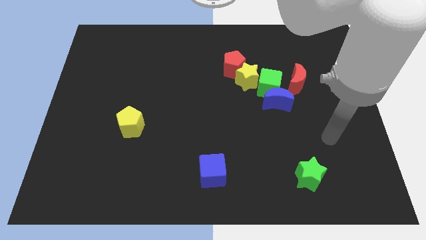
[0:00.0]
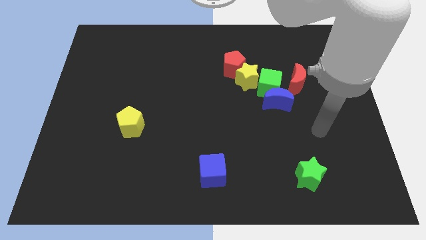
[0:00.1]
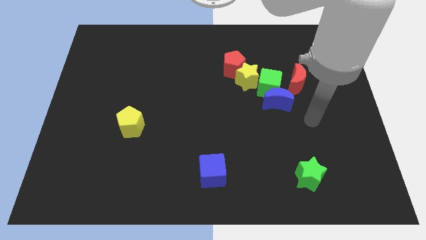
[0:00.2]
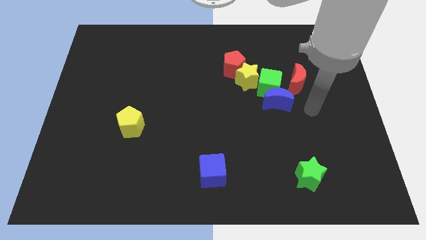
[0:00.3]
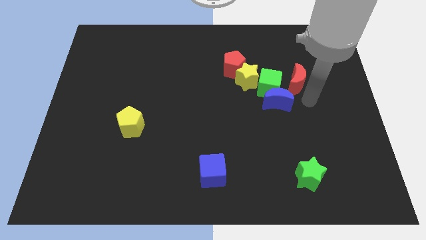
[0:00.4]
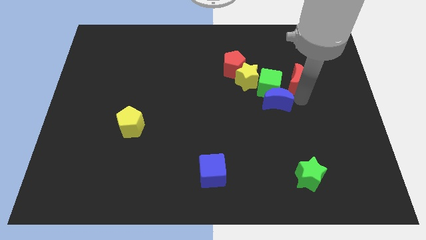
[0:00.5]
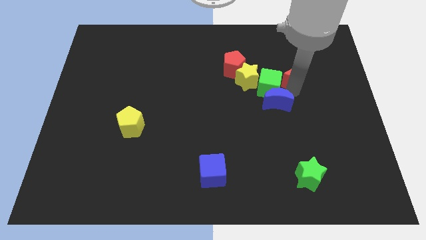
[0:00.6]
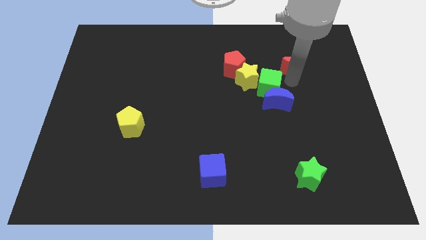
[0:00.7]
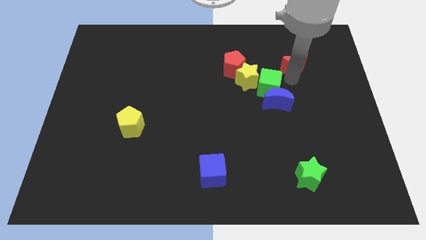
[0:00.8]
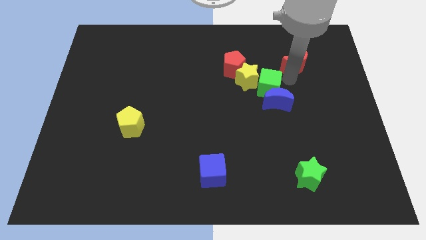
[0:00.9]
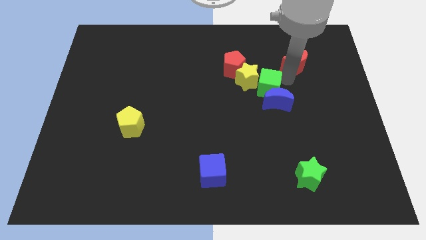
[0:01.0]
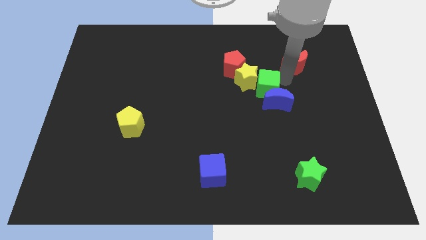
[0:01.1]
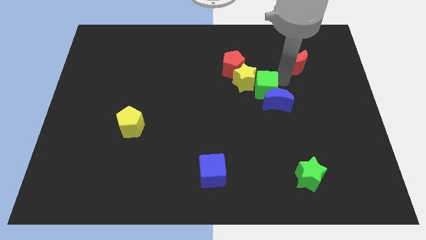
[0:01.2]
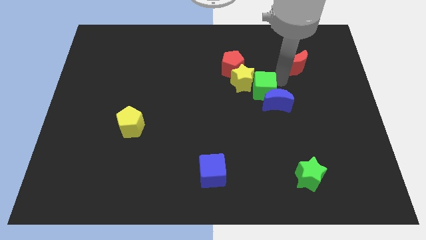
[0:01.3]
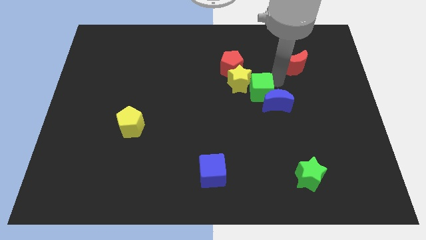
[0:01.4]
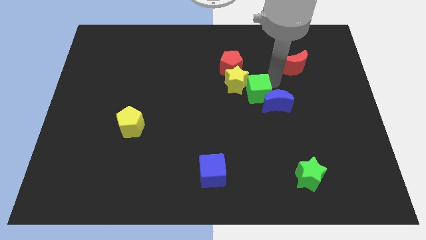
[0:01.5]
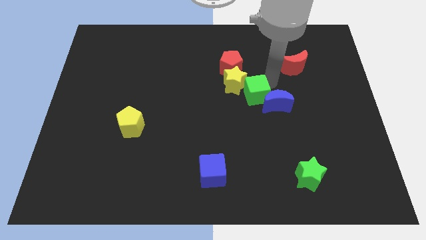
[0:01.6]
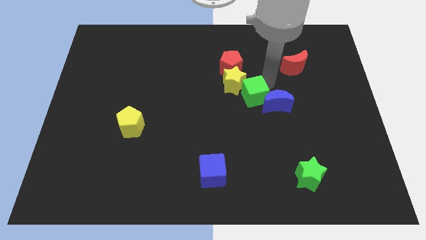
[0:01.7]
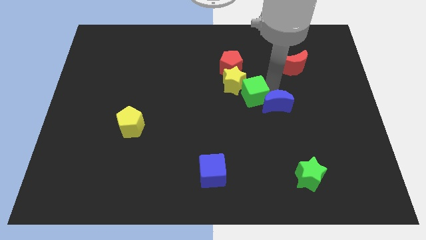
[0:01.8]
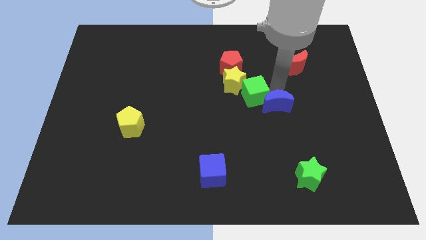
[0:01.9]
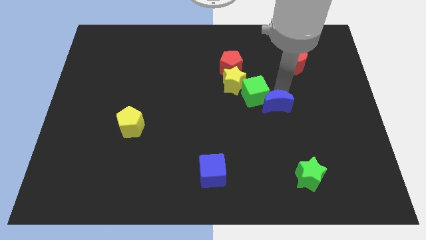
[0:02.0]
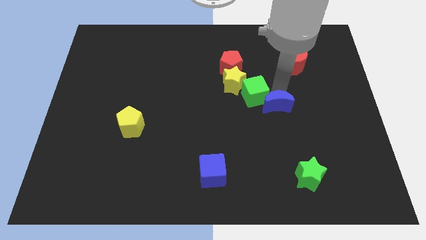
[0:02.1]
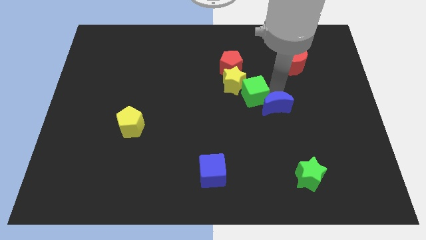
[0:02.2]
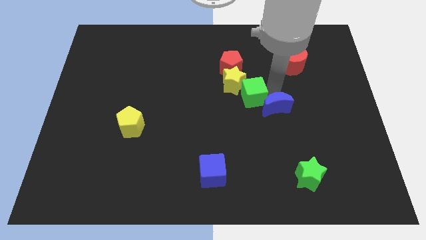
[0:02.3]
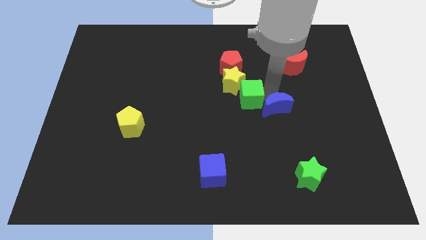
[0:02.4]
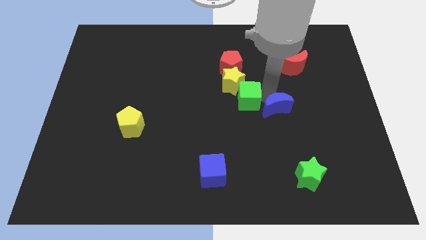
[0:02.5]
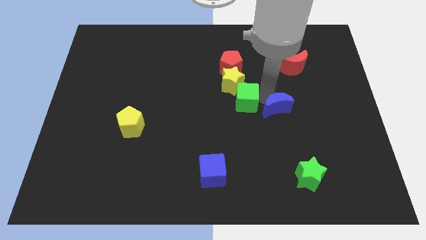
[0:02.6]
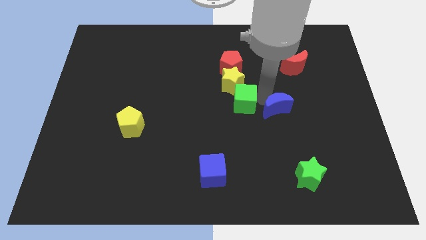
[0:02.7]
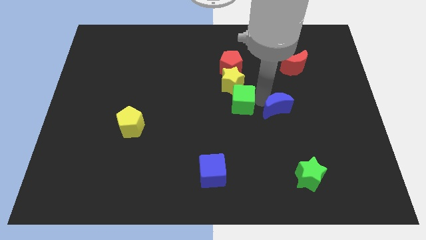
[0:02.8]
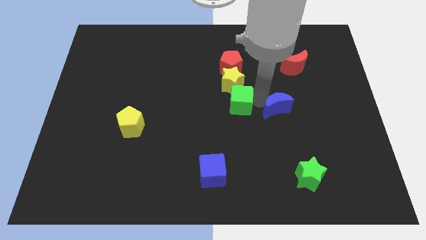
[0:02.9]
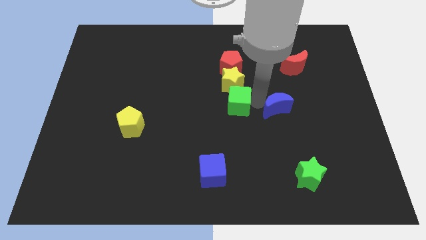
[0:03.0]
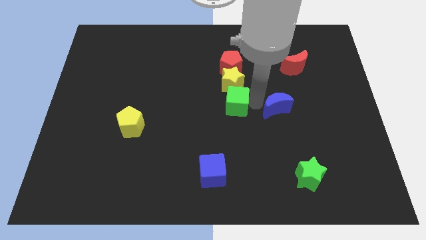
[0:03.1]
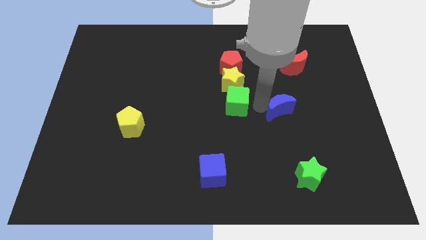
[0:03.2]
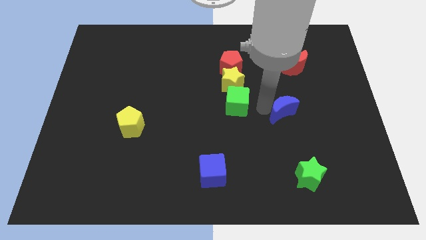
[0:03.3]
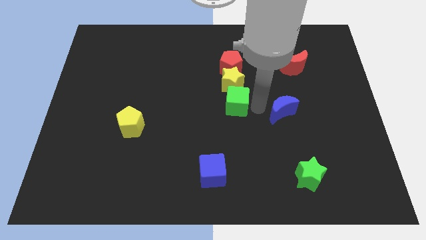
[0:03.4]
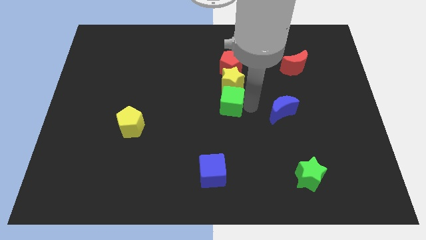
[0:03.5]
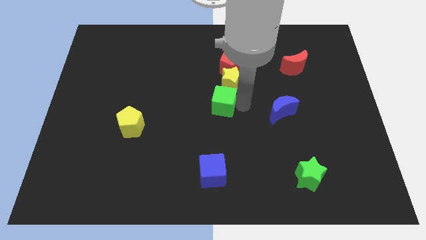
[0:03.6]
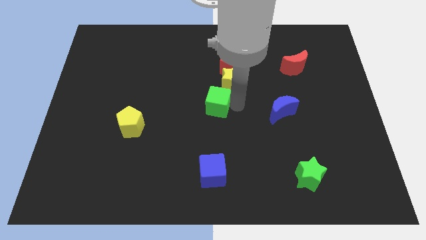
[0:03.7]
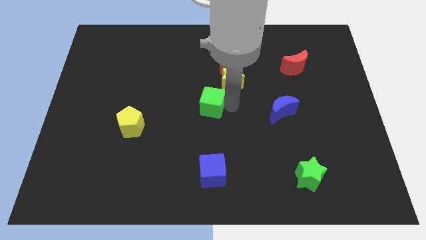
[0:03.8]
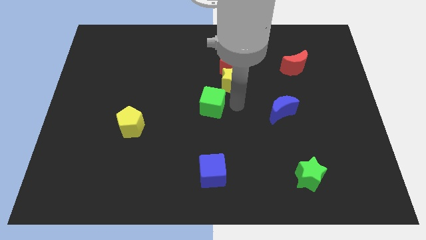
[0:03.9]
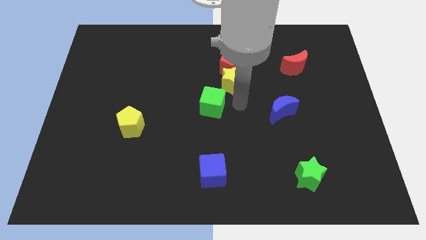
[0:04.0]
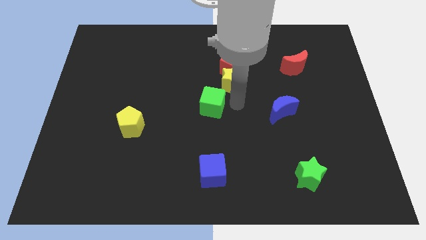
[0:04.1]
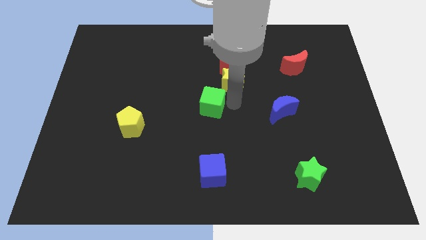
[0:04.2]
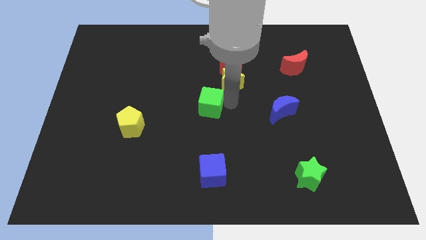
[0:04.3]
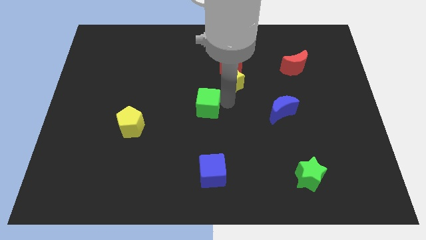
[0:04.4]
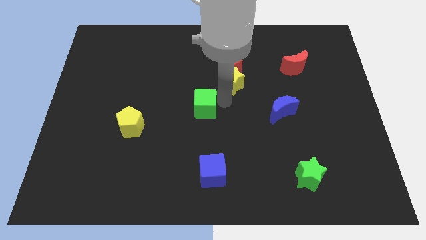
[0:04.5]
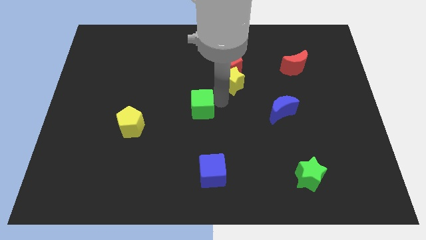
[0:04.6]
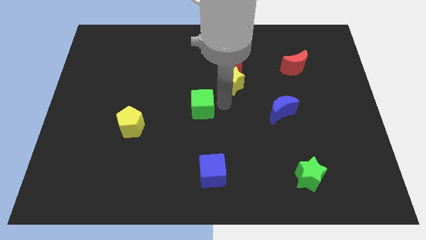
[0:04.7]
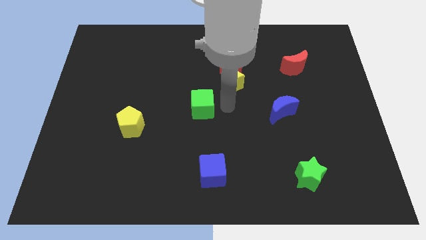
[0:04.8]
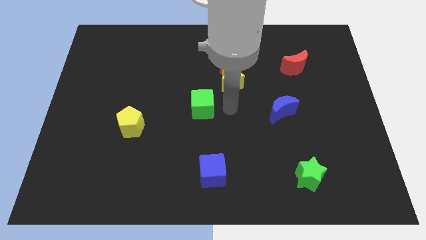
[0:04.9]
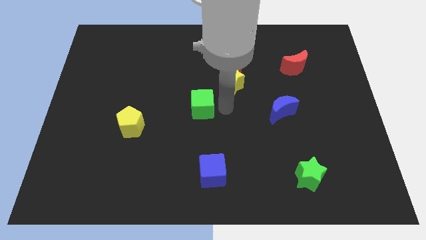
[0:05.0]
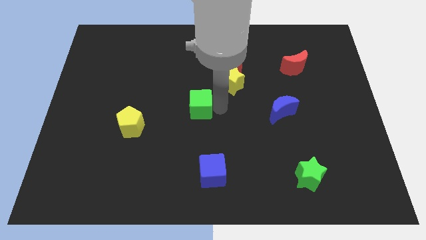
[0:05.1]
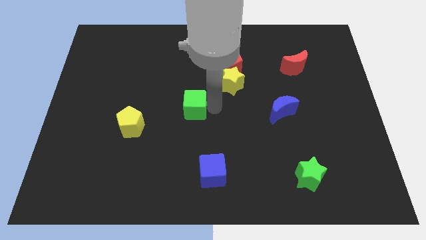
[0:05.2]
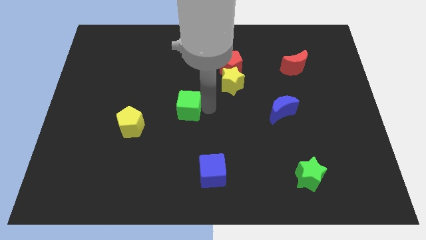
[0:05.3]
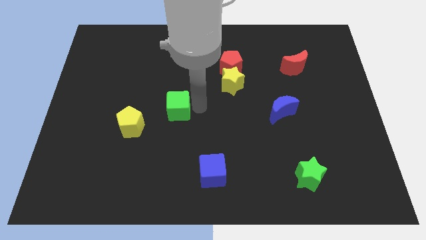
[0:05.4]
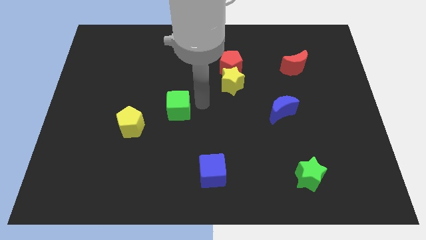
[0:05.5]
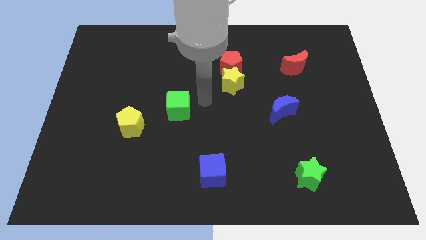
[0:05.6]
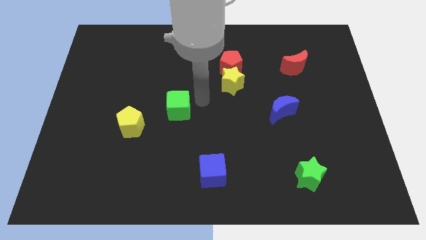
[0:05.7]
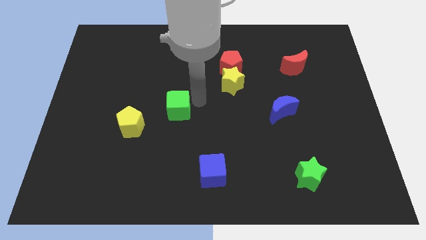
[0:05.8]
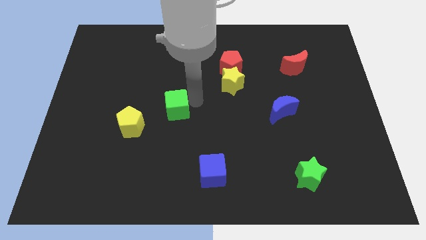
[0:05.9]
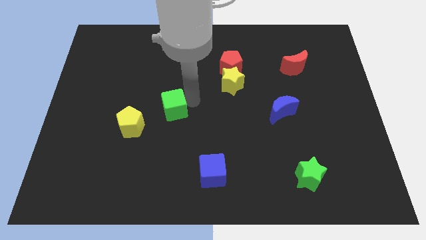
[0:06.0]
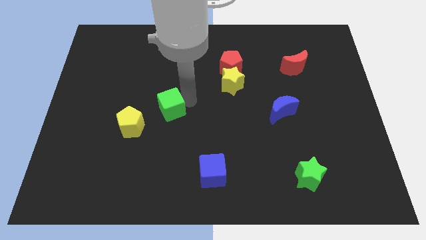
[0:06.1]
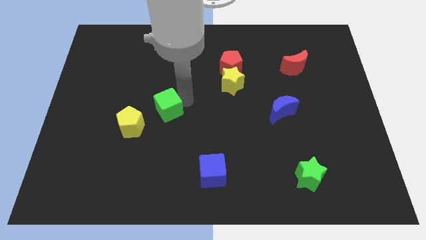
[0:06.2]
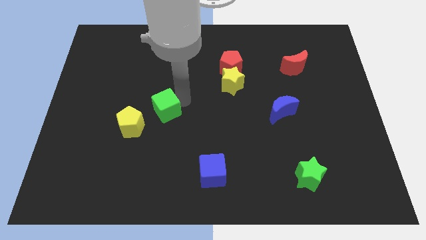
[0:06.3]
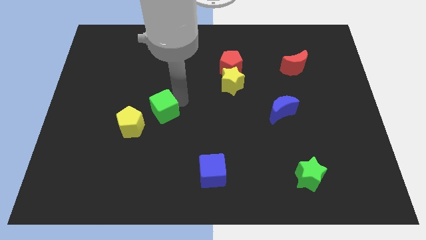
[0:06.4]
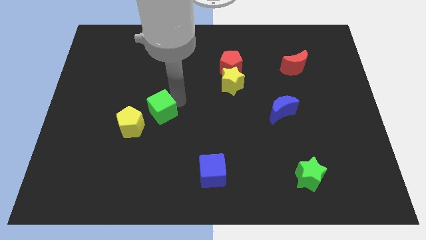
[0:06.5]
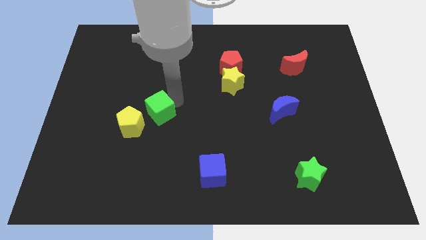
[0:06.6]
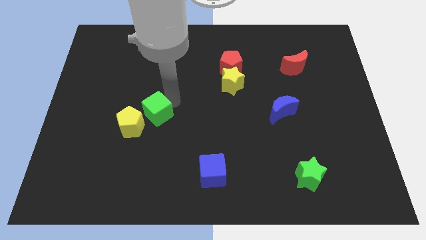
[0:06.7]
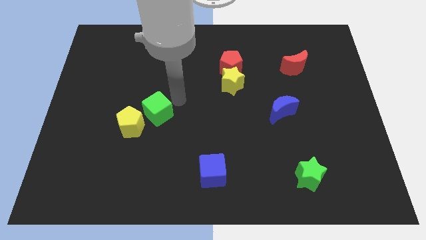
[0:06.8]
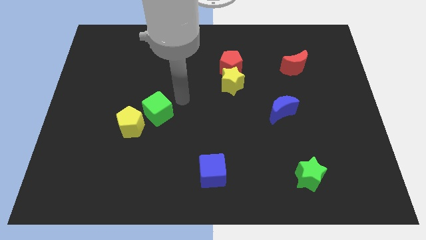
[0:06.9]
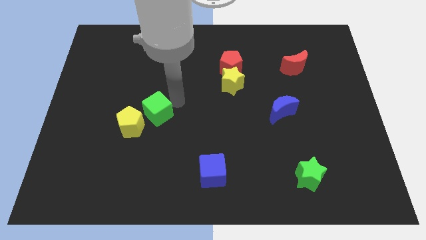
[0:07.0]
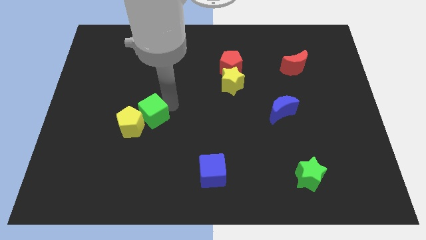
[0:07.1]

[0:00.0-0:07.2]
put the green cube to the yellow pentagon
